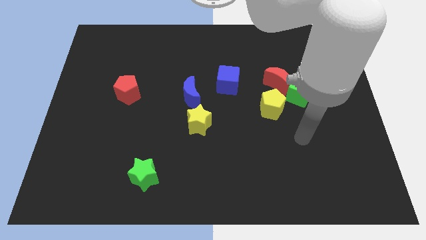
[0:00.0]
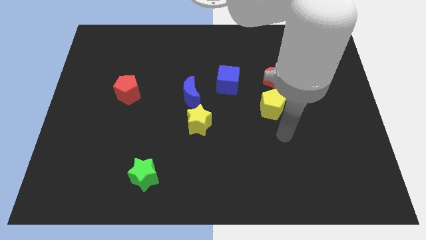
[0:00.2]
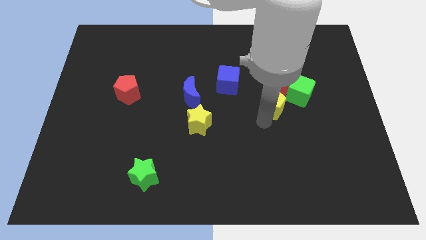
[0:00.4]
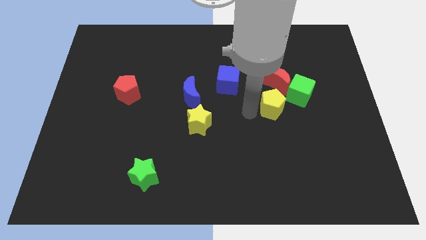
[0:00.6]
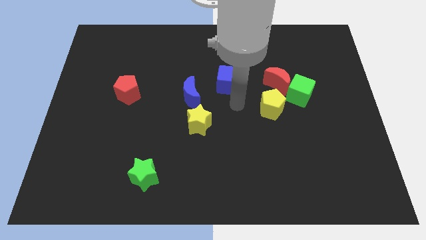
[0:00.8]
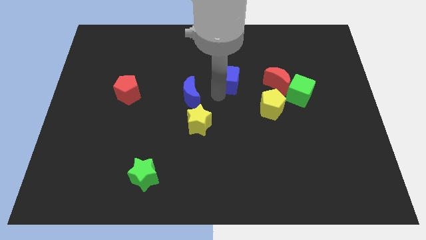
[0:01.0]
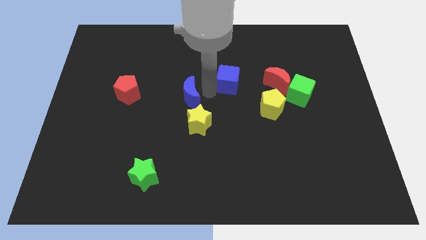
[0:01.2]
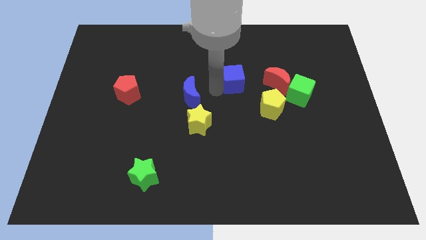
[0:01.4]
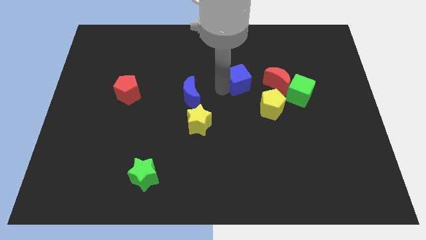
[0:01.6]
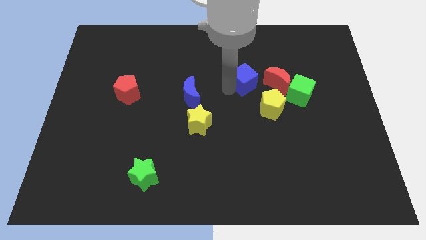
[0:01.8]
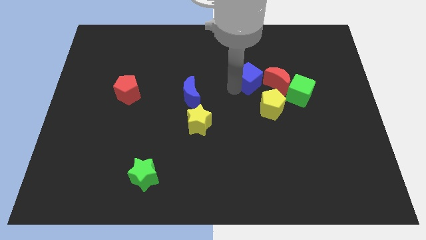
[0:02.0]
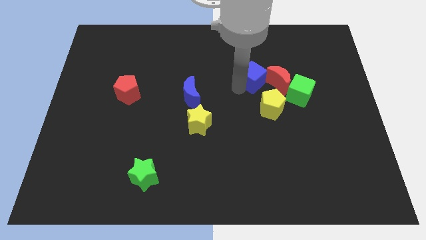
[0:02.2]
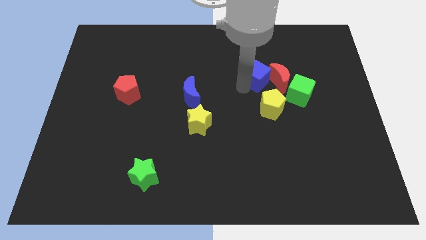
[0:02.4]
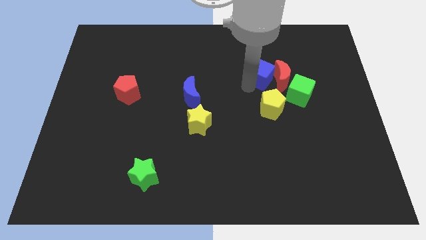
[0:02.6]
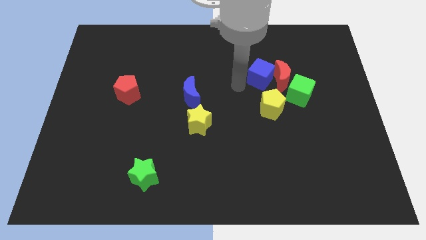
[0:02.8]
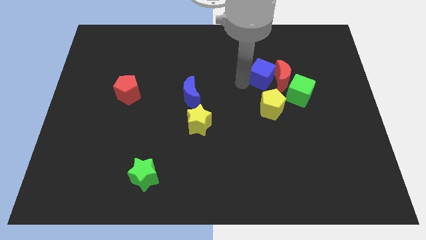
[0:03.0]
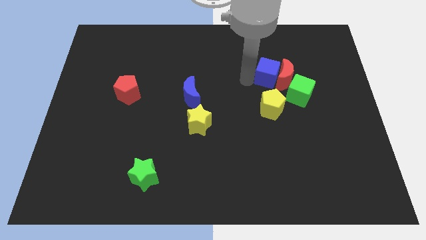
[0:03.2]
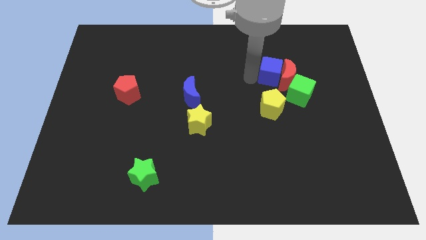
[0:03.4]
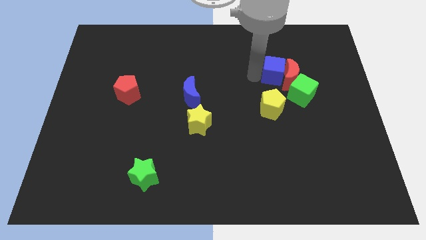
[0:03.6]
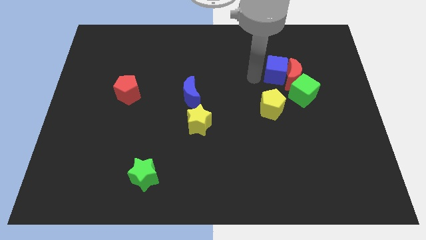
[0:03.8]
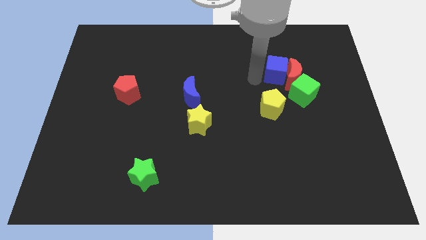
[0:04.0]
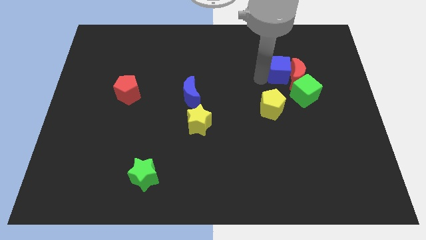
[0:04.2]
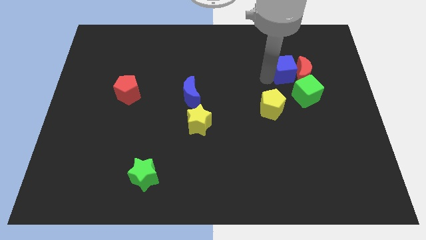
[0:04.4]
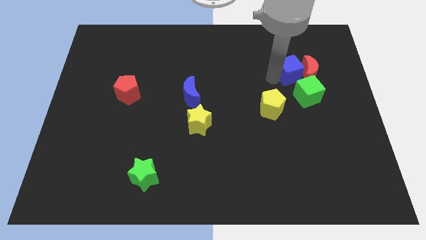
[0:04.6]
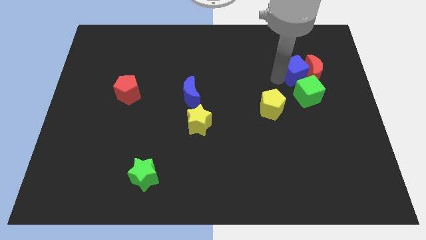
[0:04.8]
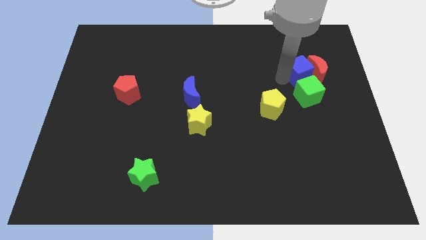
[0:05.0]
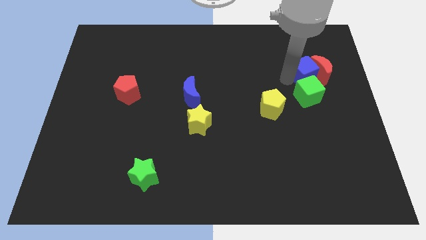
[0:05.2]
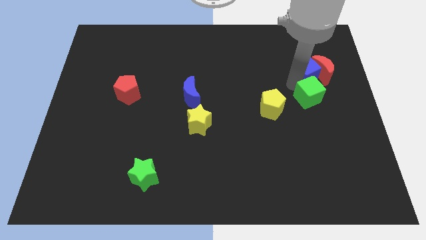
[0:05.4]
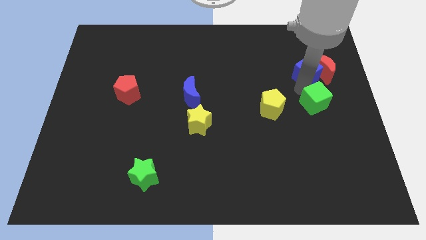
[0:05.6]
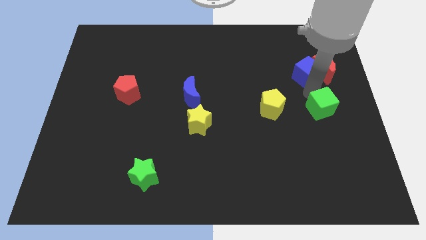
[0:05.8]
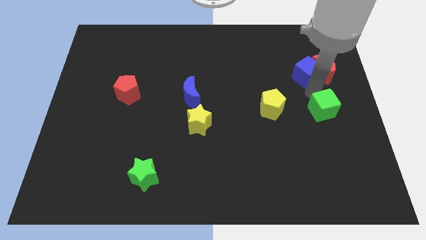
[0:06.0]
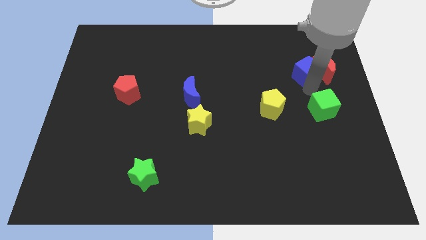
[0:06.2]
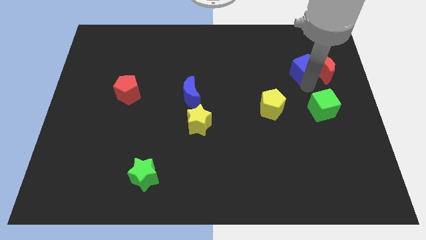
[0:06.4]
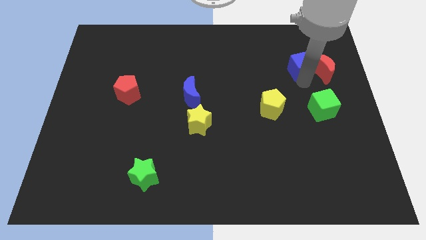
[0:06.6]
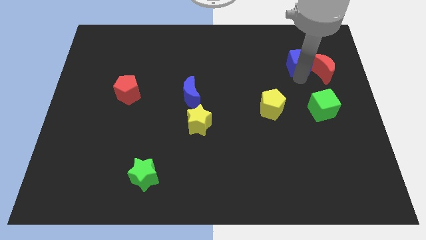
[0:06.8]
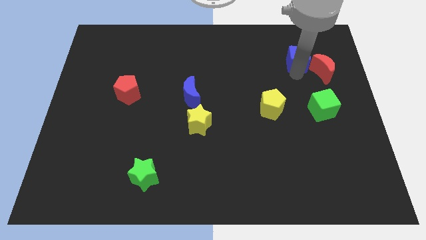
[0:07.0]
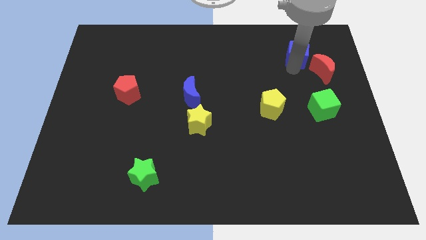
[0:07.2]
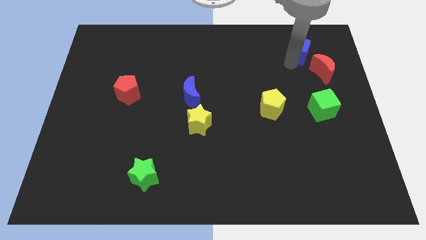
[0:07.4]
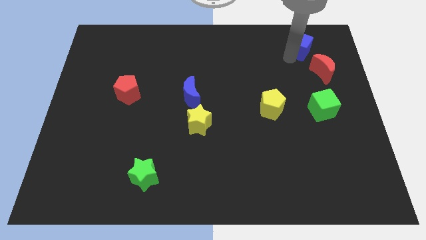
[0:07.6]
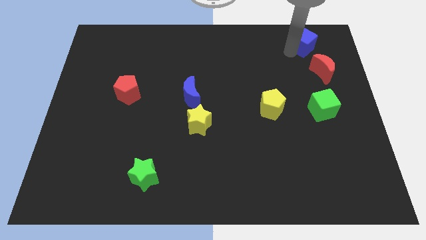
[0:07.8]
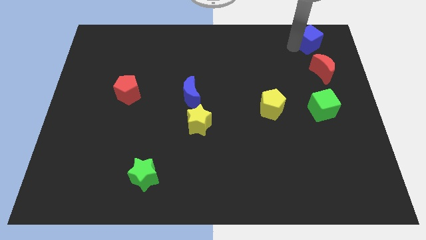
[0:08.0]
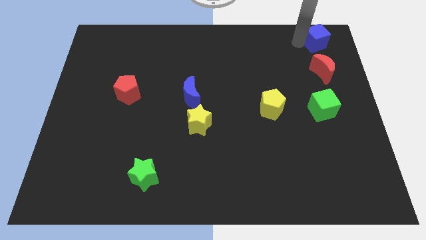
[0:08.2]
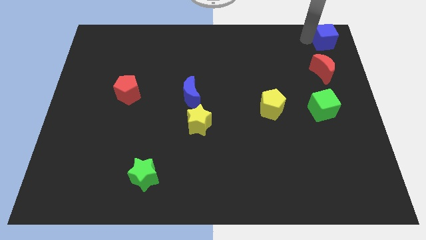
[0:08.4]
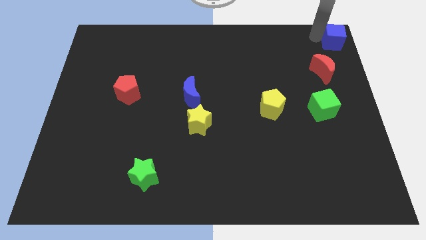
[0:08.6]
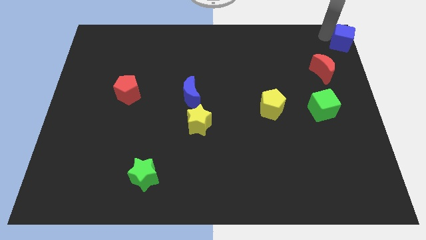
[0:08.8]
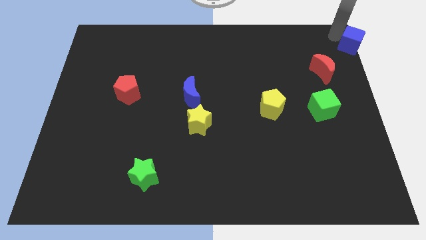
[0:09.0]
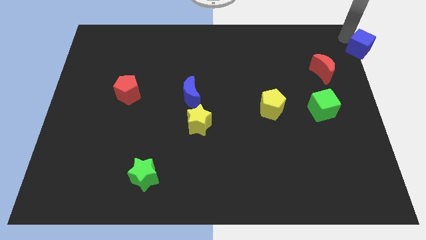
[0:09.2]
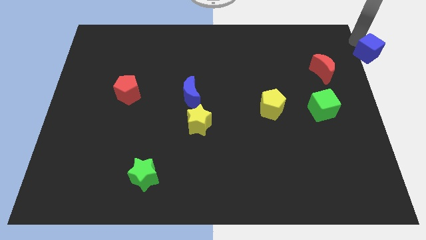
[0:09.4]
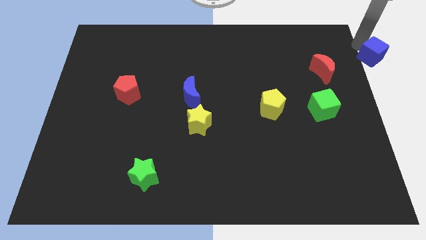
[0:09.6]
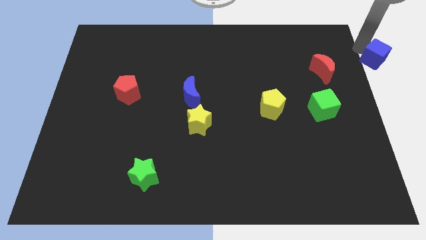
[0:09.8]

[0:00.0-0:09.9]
push the blue cube to the right side
